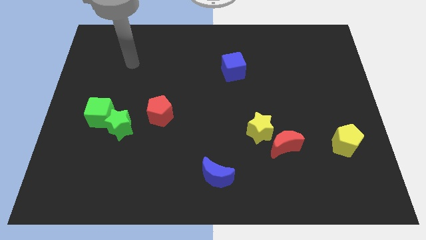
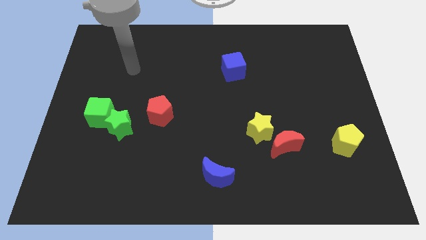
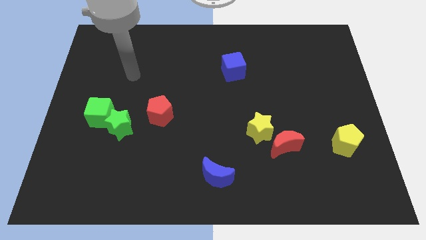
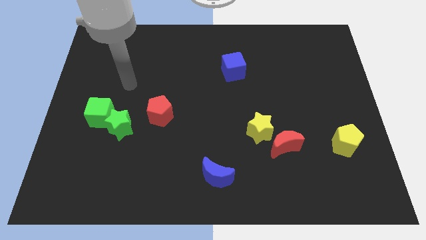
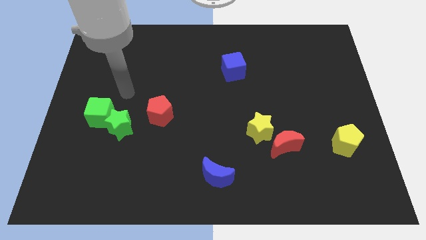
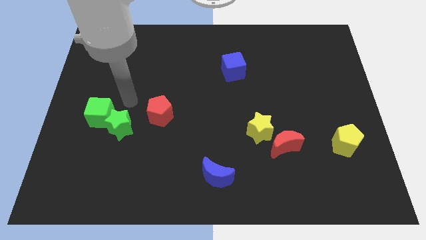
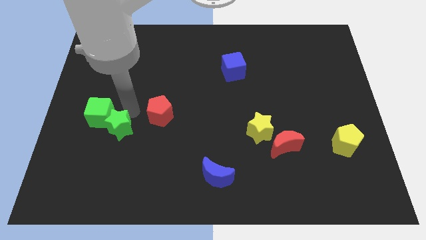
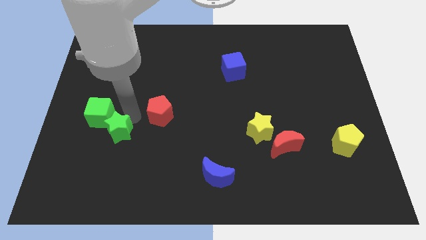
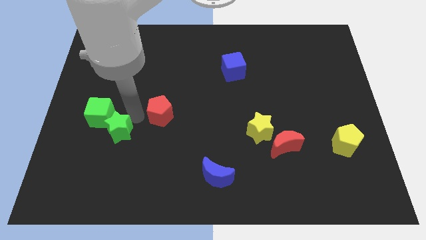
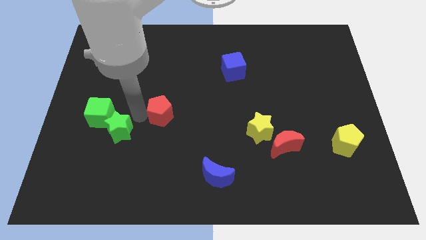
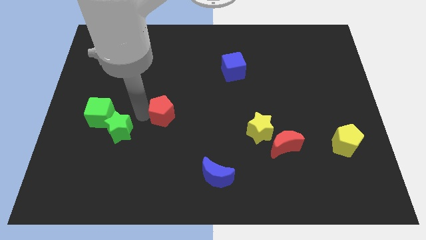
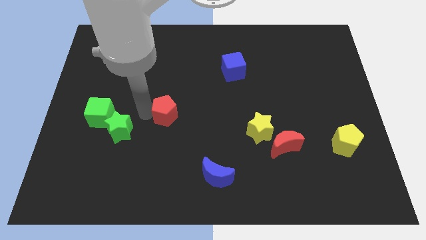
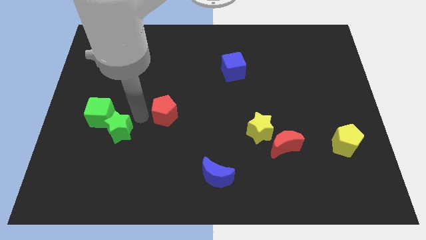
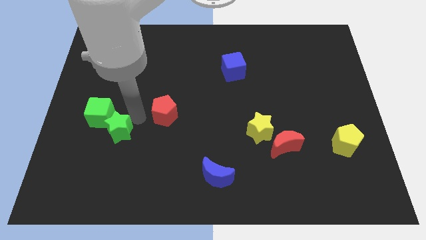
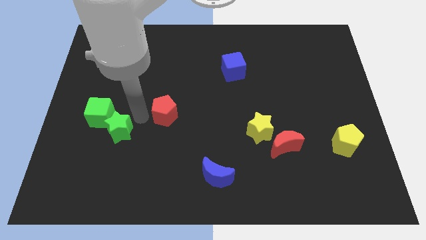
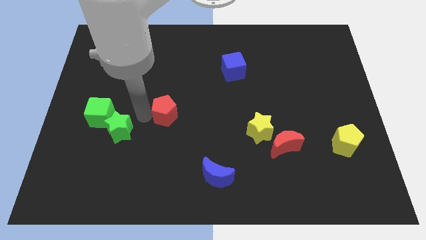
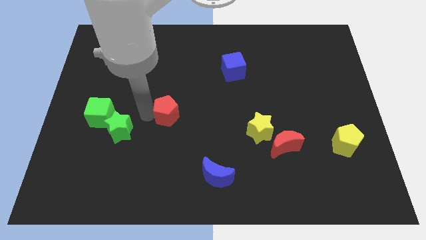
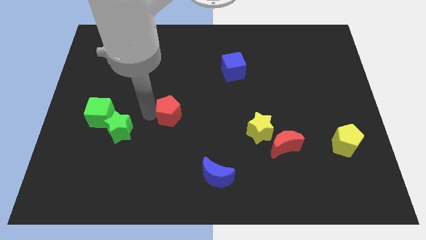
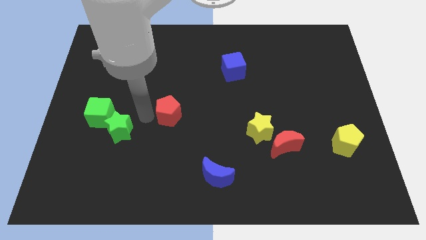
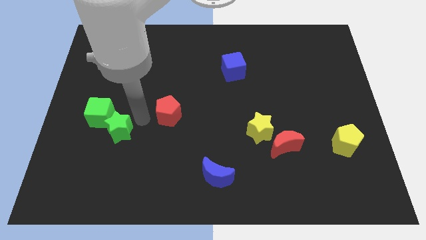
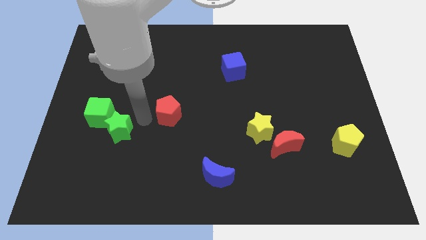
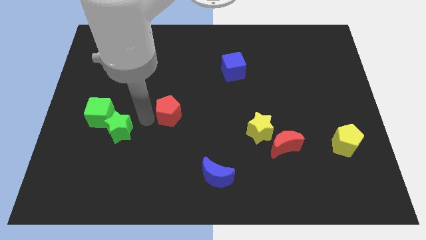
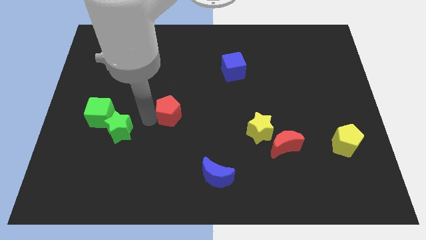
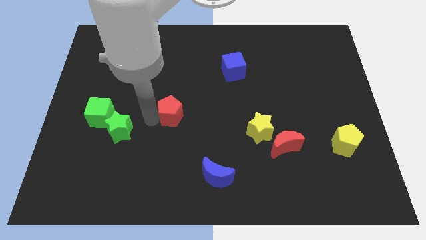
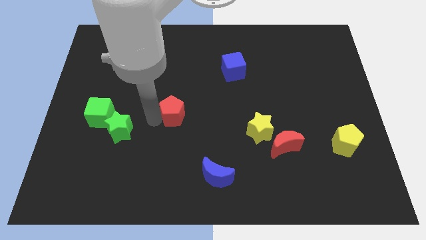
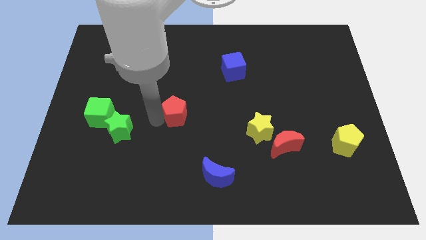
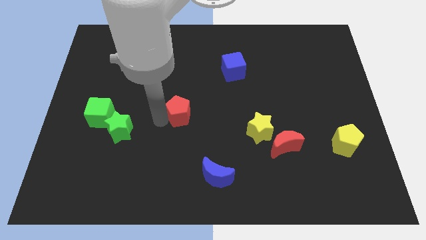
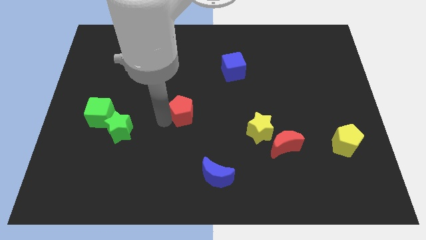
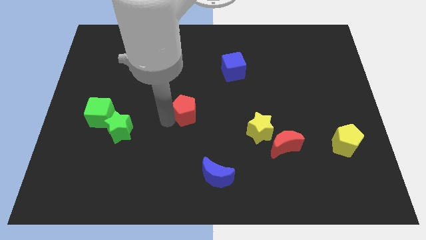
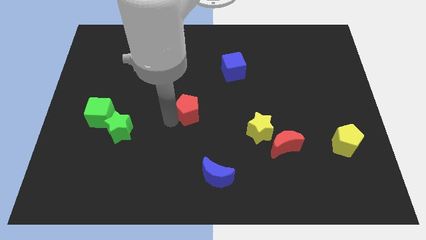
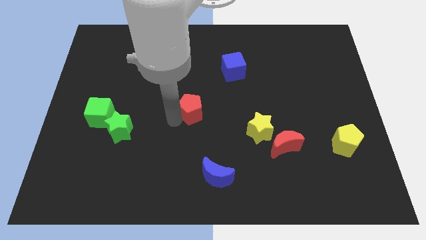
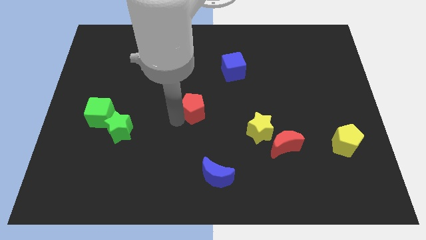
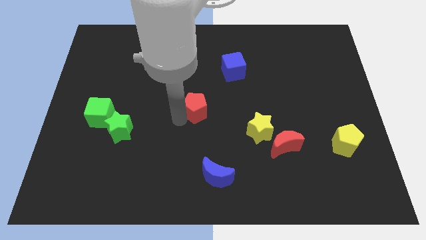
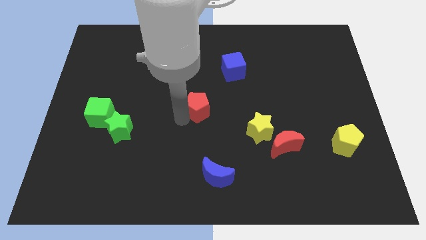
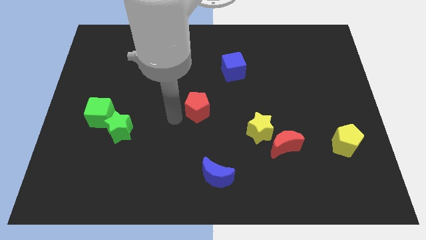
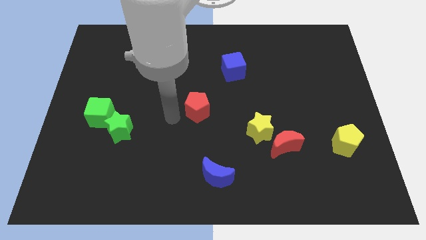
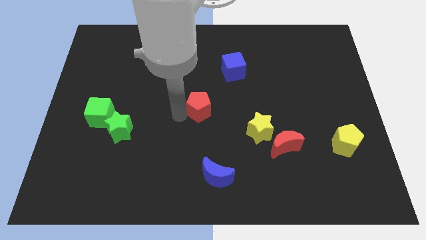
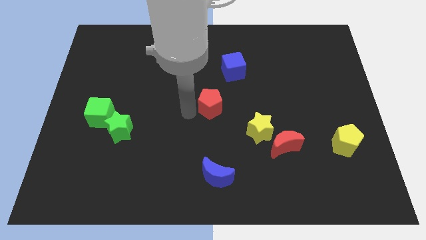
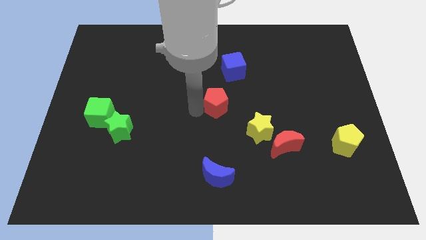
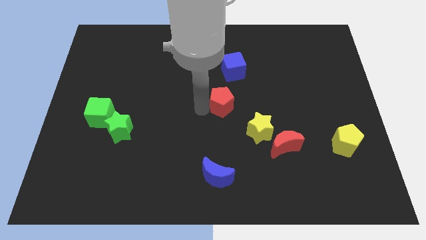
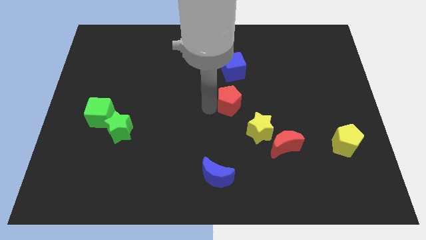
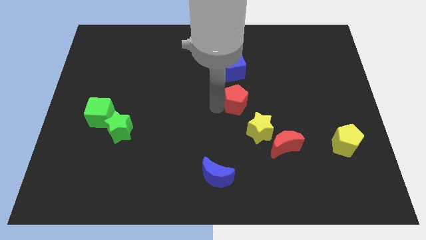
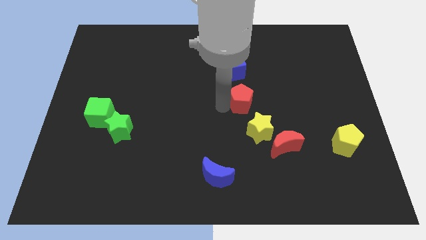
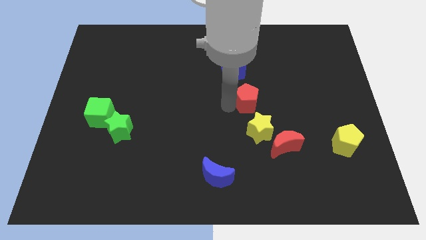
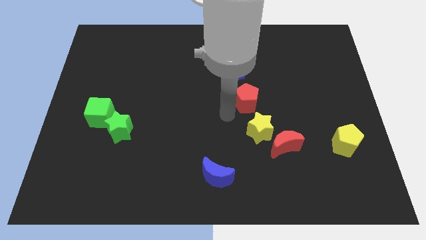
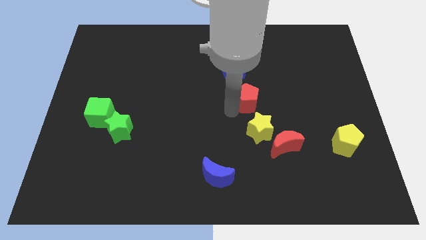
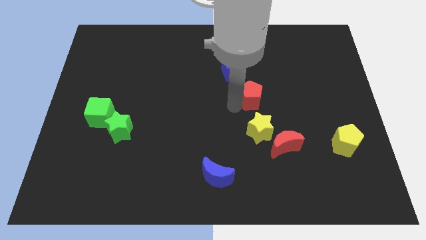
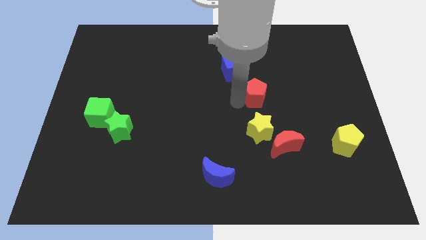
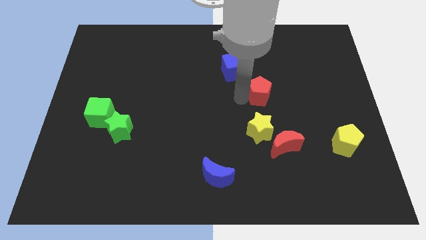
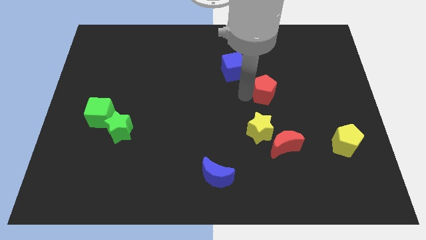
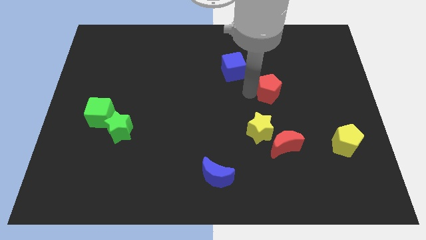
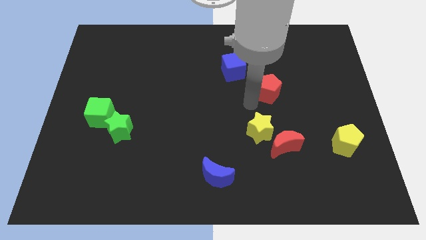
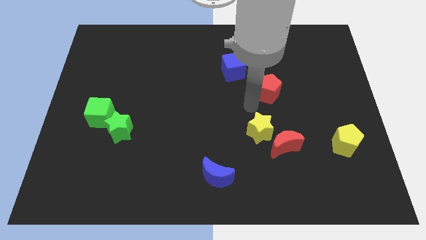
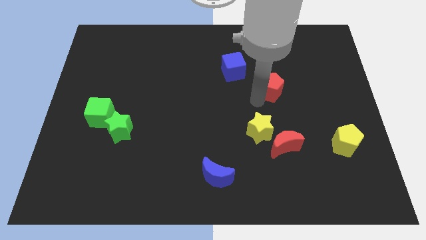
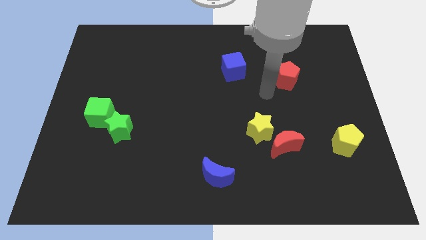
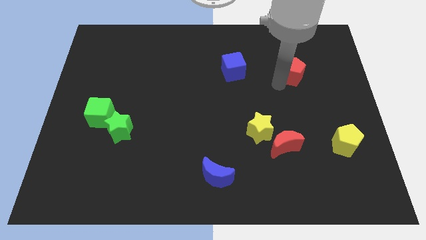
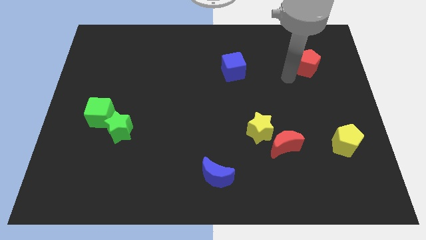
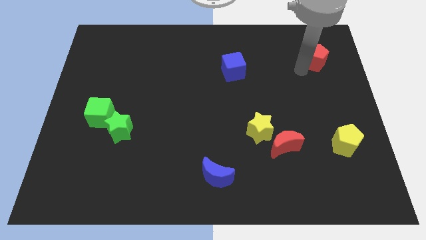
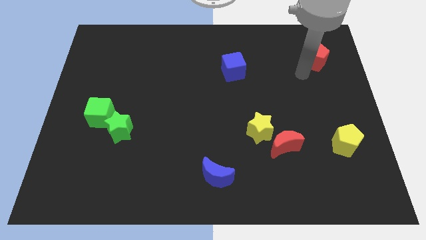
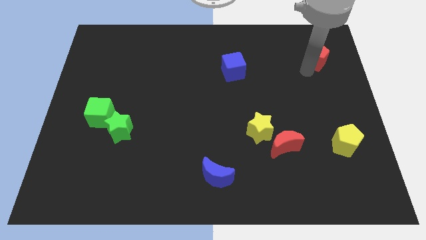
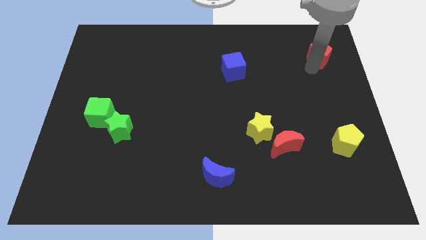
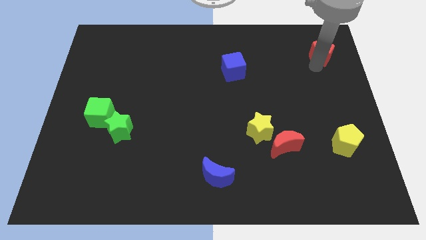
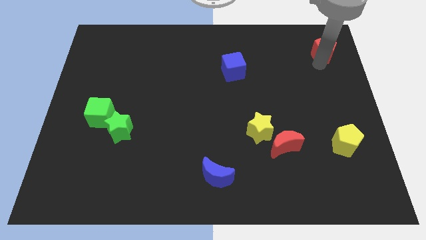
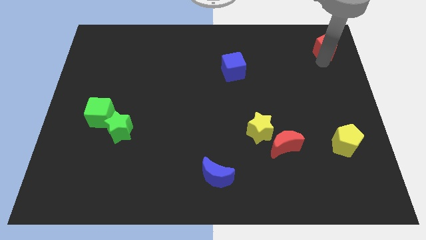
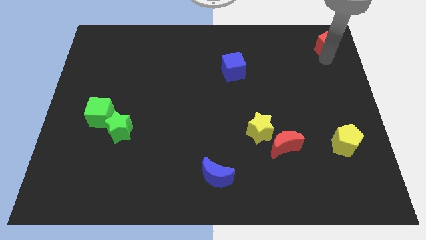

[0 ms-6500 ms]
push the red pentagon to the upper right corner
